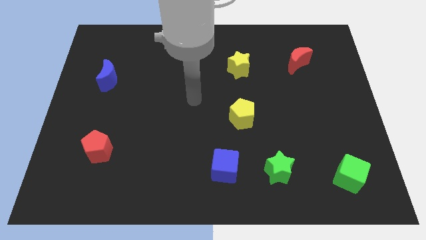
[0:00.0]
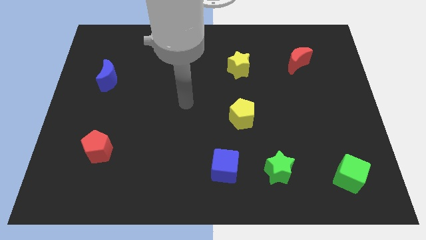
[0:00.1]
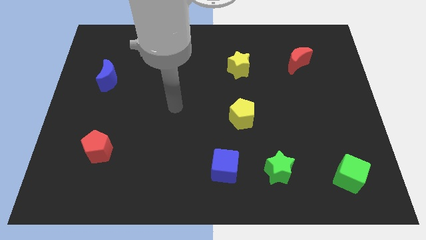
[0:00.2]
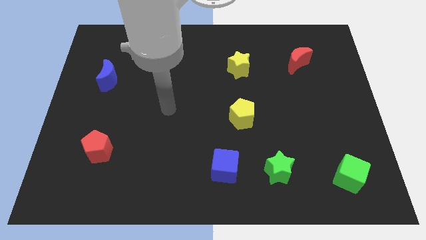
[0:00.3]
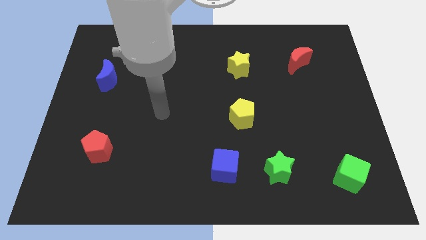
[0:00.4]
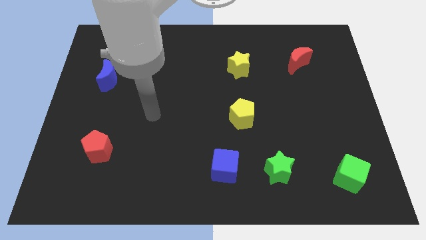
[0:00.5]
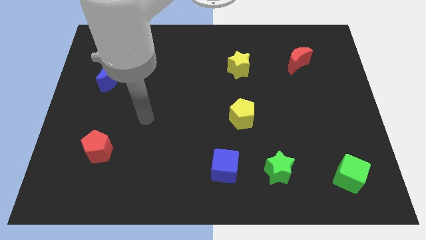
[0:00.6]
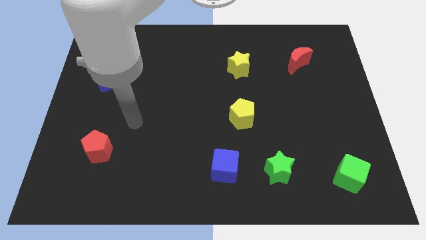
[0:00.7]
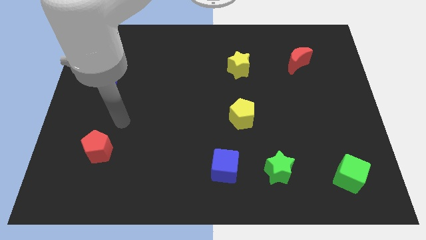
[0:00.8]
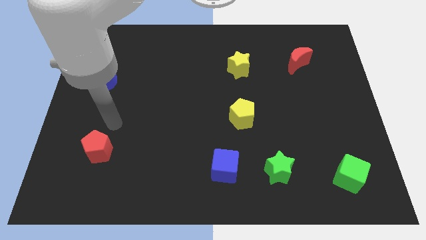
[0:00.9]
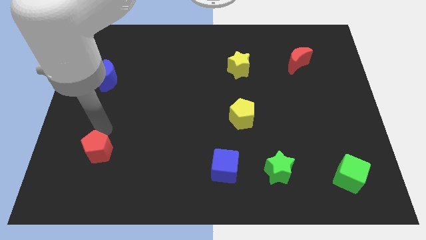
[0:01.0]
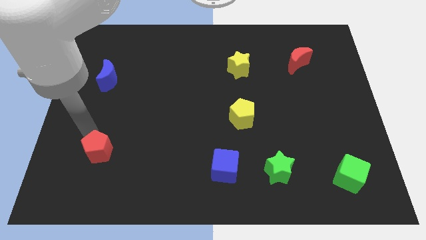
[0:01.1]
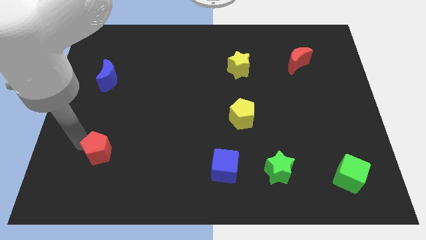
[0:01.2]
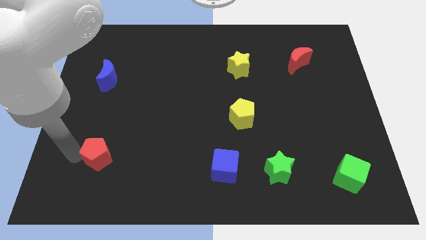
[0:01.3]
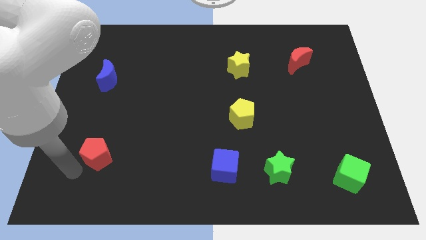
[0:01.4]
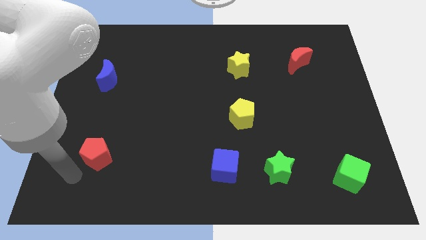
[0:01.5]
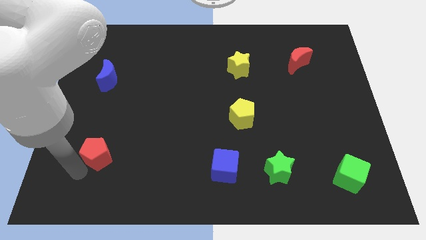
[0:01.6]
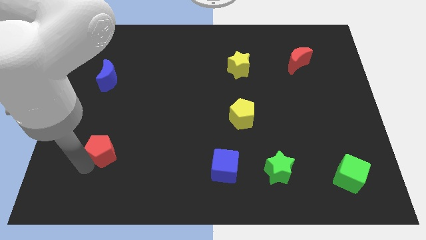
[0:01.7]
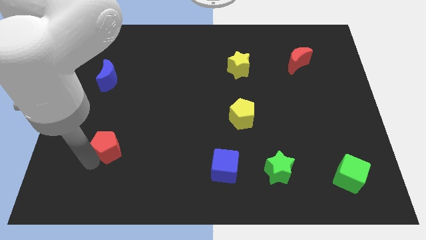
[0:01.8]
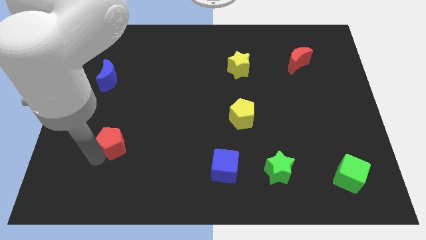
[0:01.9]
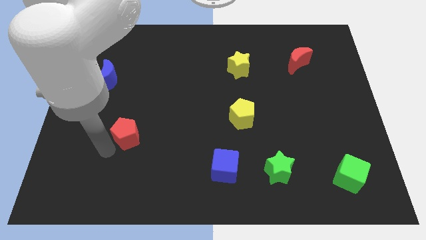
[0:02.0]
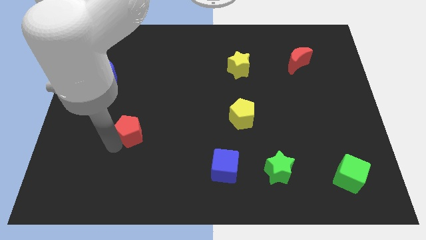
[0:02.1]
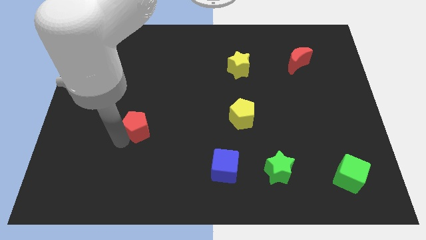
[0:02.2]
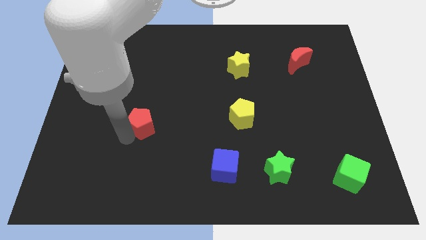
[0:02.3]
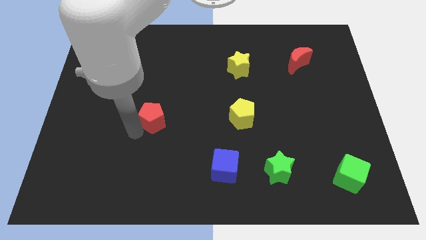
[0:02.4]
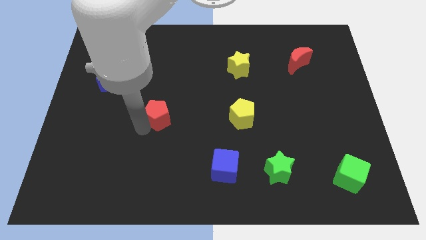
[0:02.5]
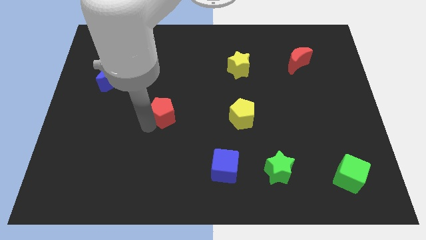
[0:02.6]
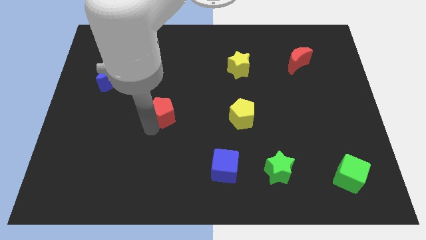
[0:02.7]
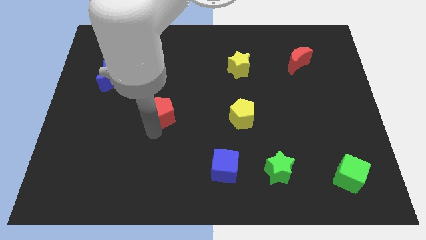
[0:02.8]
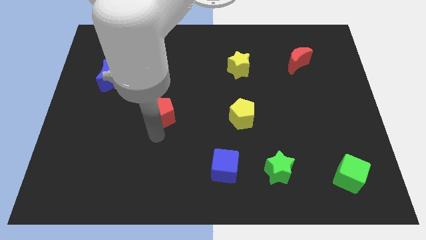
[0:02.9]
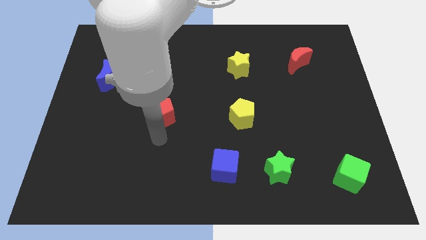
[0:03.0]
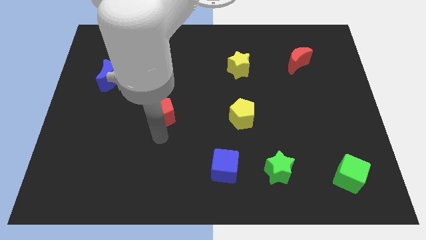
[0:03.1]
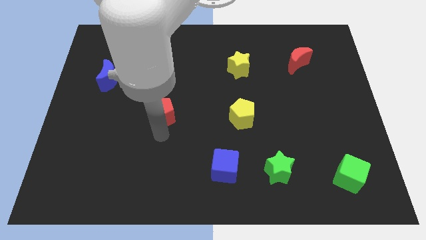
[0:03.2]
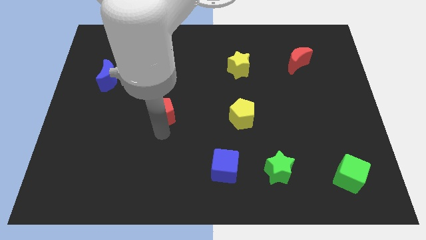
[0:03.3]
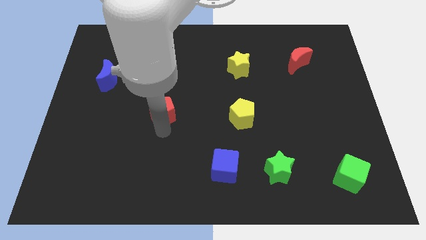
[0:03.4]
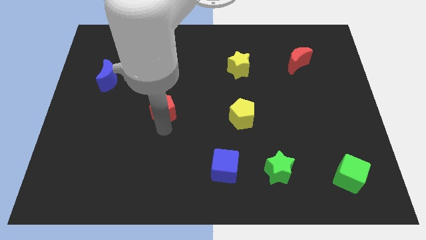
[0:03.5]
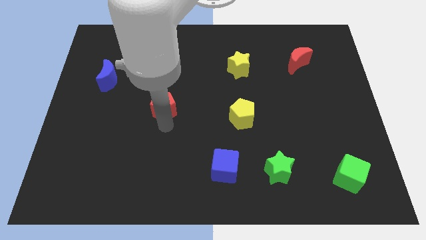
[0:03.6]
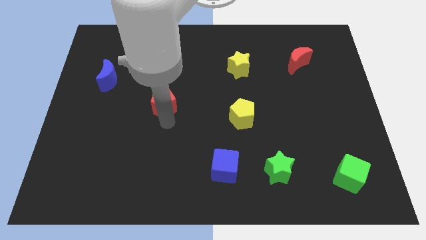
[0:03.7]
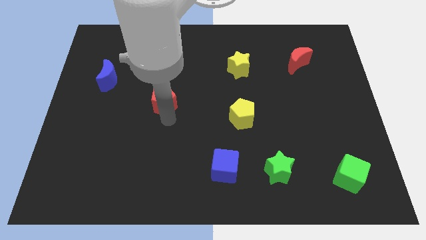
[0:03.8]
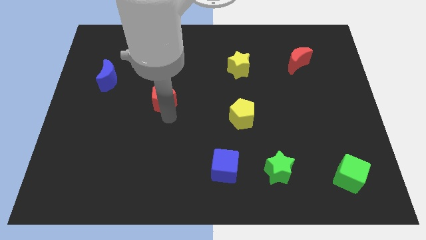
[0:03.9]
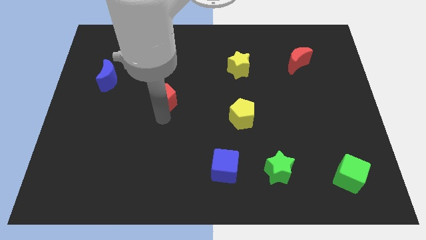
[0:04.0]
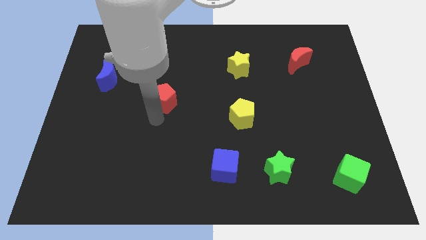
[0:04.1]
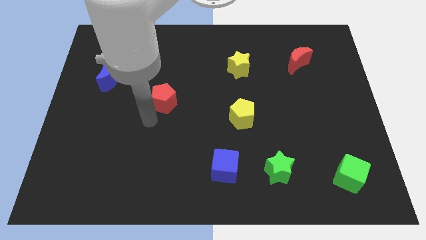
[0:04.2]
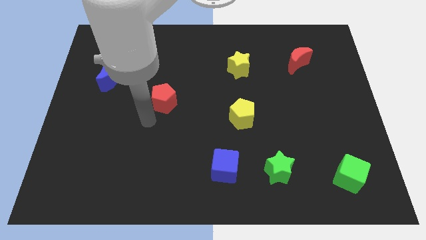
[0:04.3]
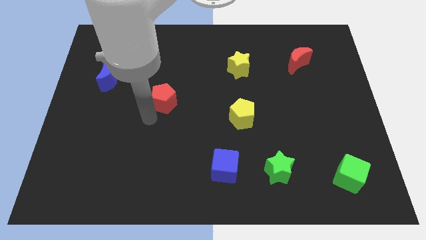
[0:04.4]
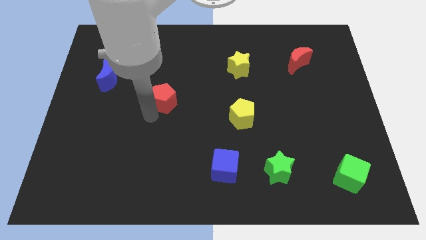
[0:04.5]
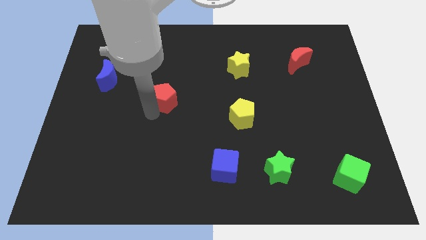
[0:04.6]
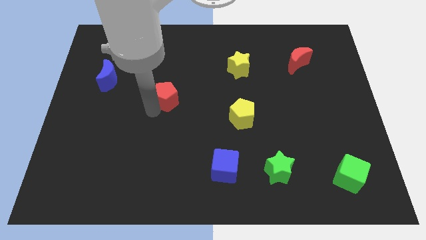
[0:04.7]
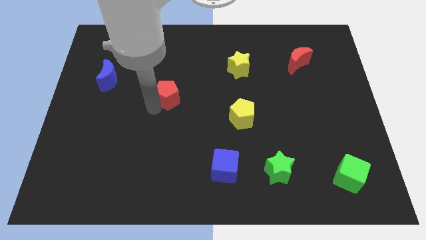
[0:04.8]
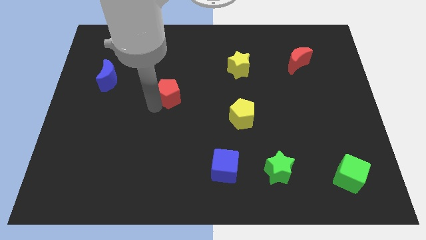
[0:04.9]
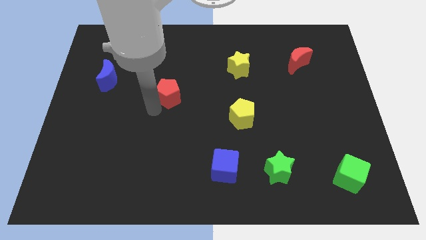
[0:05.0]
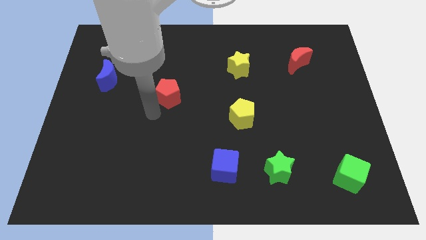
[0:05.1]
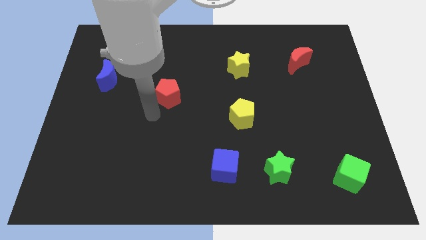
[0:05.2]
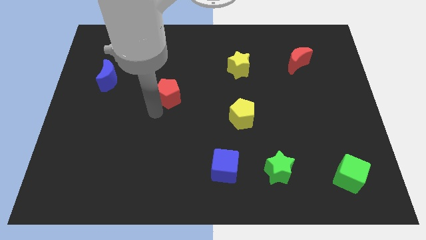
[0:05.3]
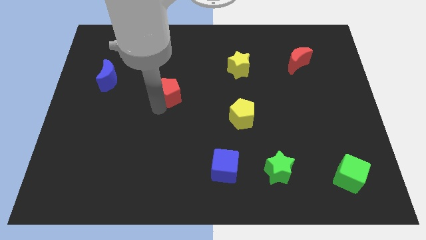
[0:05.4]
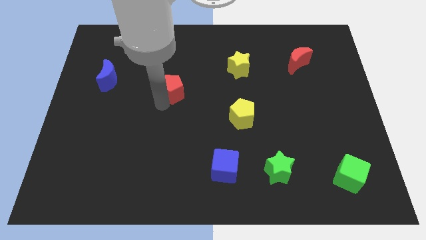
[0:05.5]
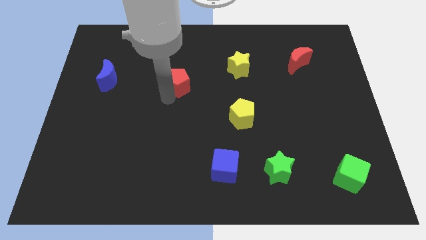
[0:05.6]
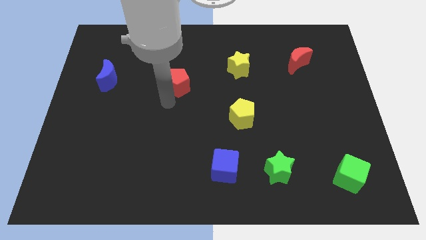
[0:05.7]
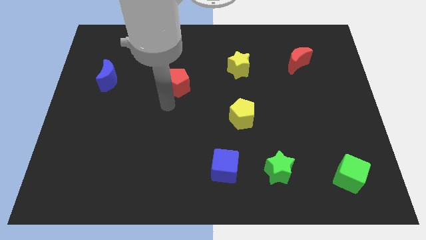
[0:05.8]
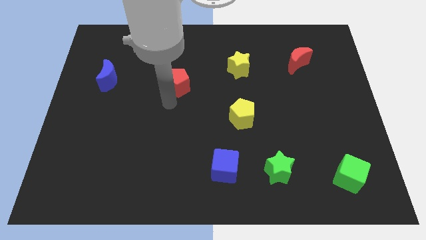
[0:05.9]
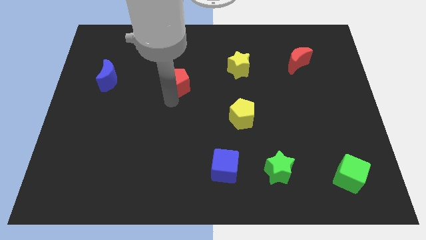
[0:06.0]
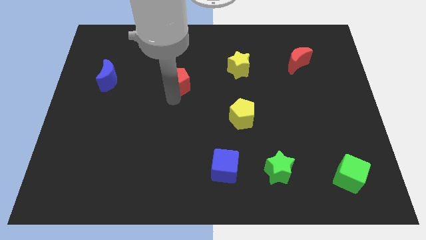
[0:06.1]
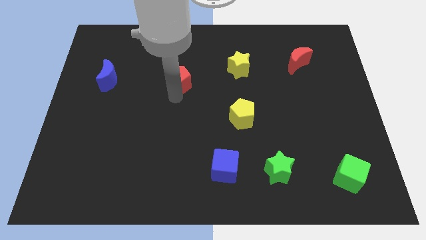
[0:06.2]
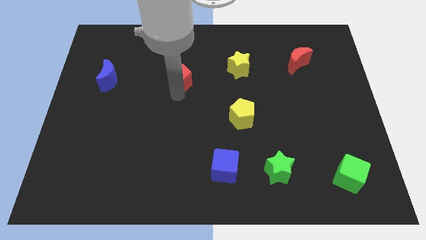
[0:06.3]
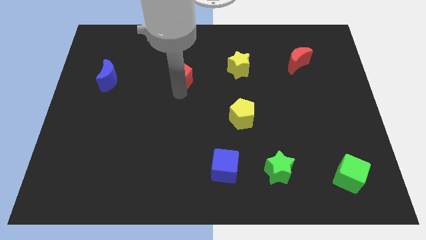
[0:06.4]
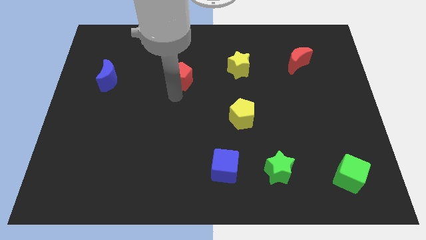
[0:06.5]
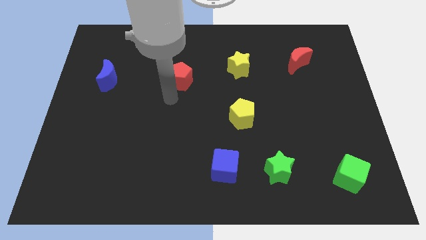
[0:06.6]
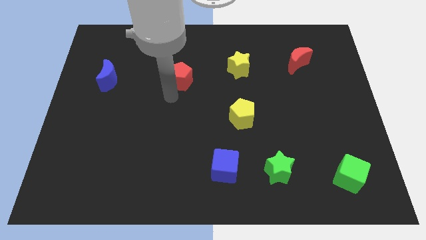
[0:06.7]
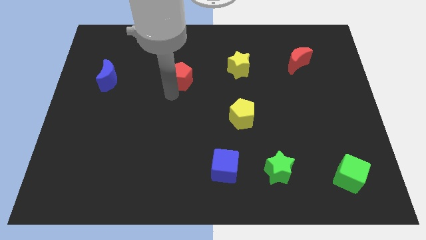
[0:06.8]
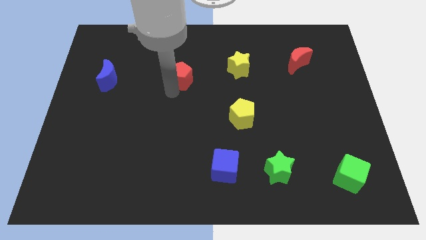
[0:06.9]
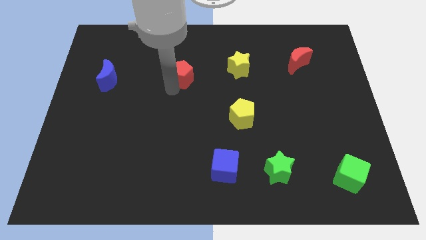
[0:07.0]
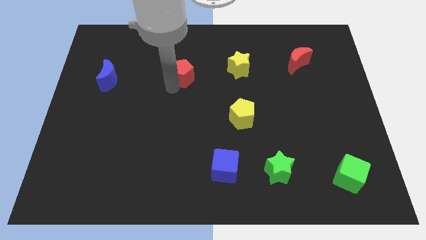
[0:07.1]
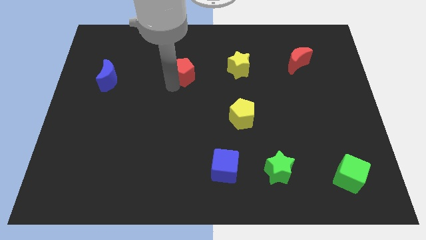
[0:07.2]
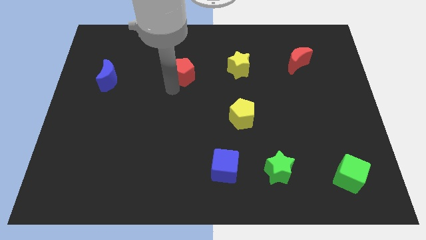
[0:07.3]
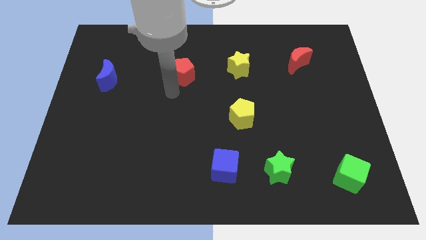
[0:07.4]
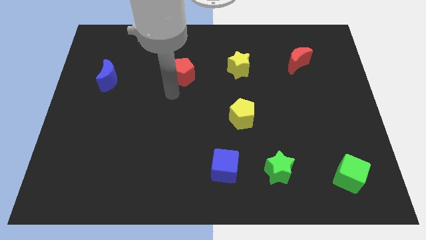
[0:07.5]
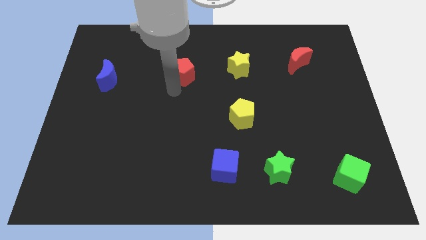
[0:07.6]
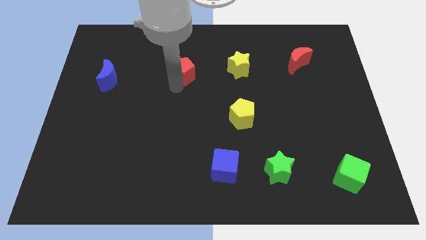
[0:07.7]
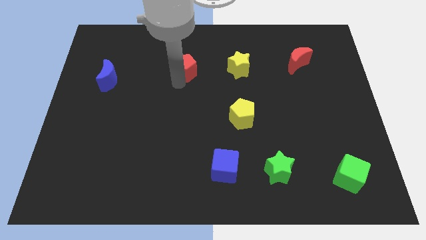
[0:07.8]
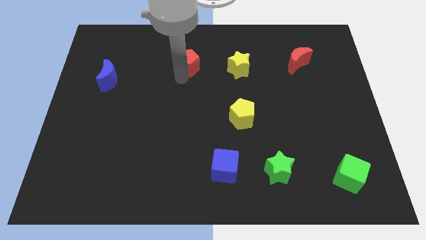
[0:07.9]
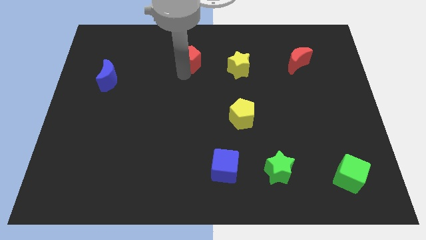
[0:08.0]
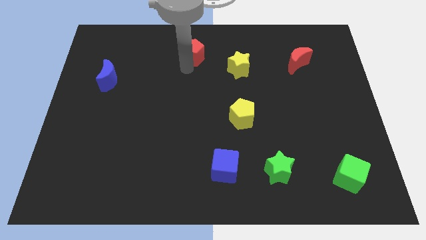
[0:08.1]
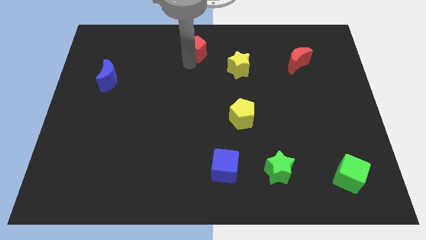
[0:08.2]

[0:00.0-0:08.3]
put the red pentagon to the towards your base

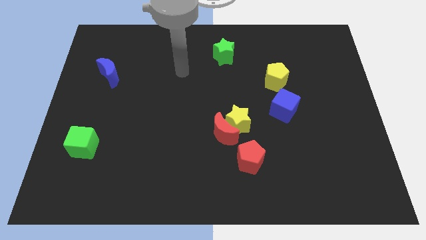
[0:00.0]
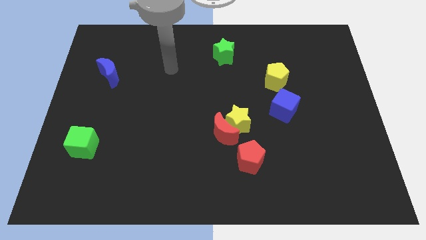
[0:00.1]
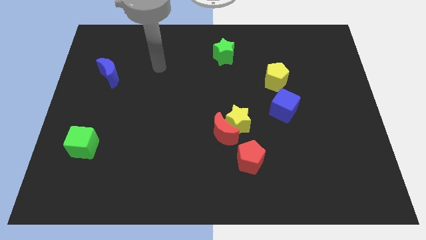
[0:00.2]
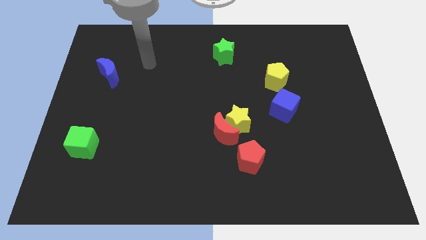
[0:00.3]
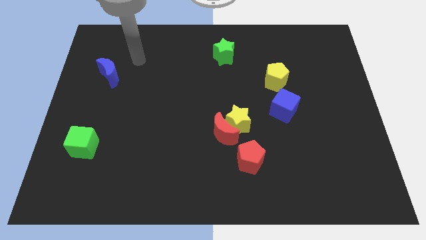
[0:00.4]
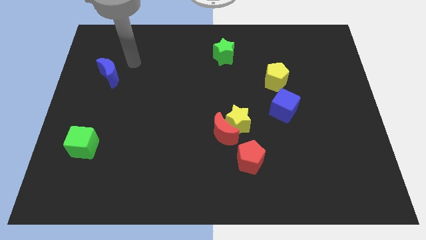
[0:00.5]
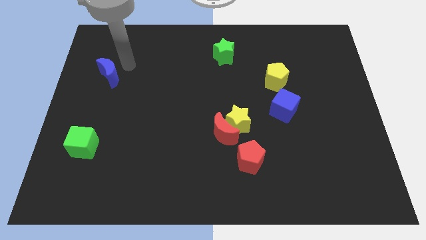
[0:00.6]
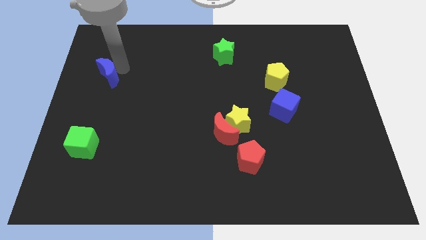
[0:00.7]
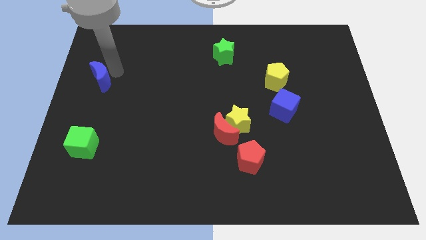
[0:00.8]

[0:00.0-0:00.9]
put the blue moon to the left side
